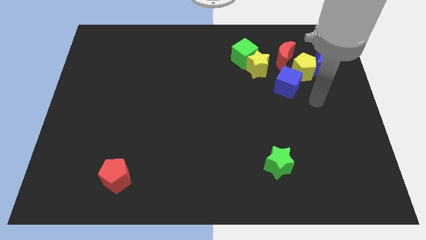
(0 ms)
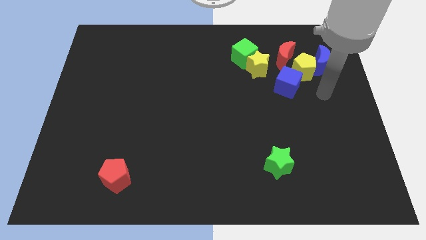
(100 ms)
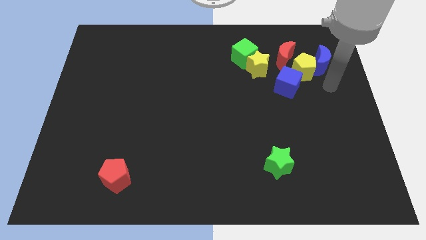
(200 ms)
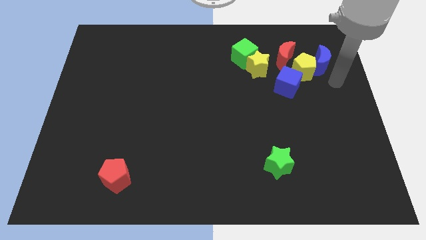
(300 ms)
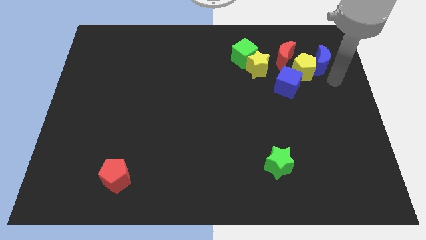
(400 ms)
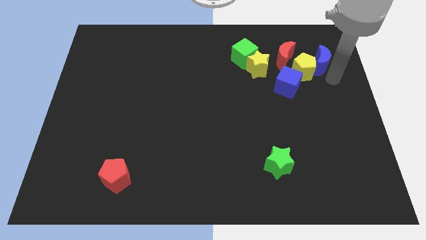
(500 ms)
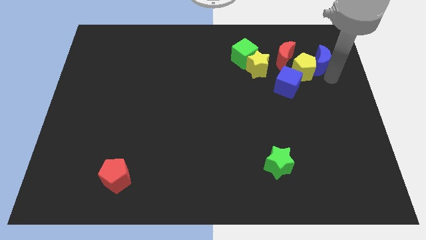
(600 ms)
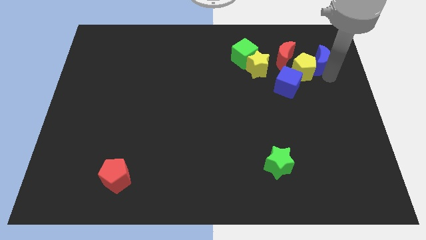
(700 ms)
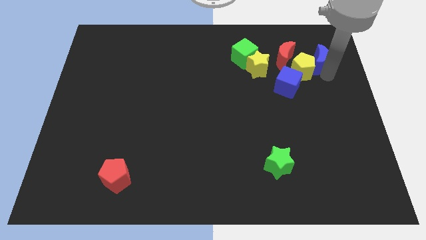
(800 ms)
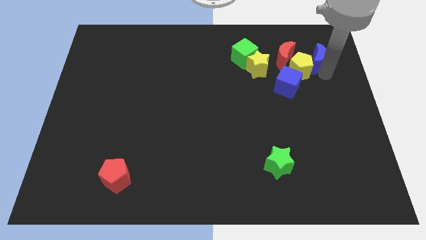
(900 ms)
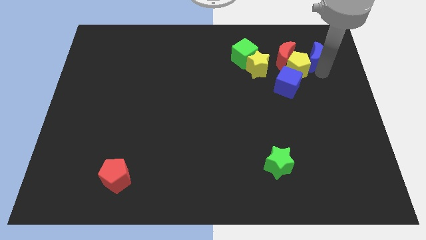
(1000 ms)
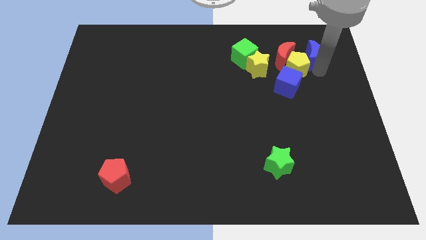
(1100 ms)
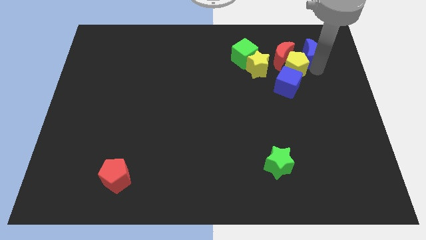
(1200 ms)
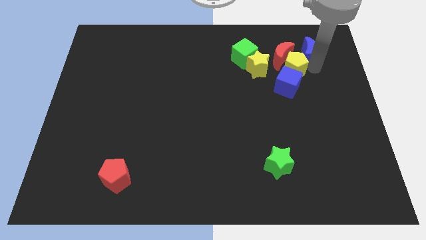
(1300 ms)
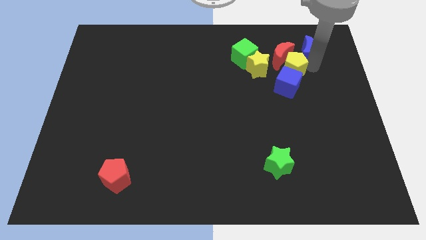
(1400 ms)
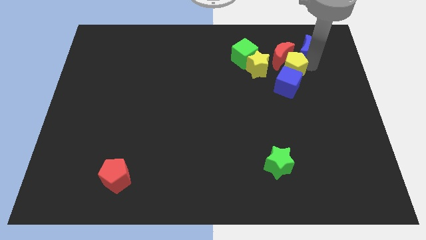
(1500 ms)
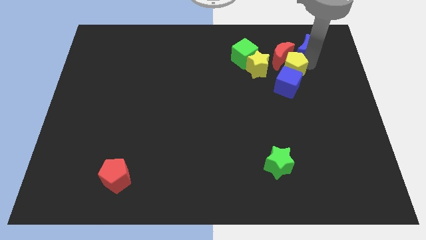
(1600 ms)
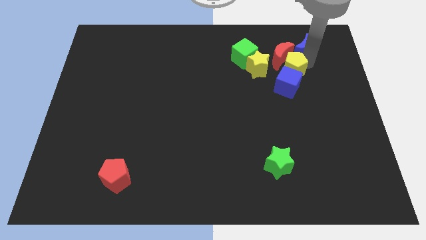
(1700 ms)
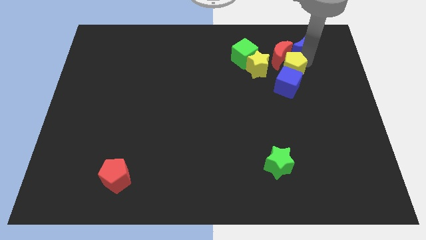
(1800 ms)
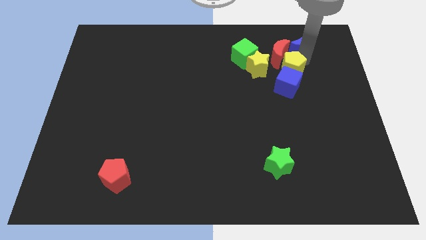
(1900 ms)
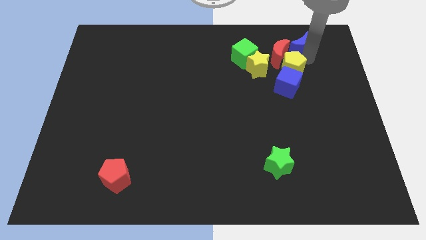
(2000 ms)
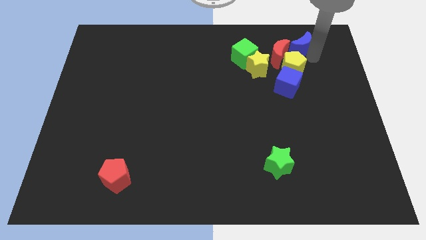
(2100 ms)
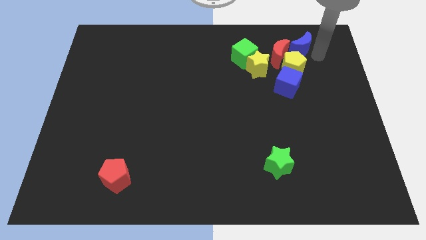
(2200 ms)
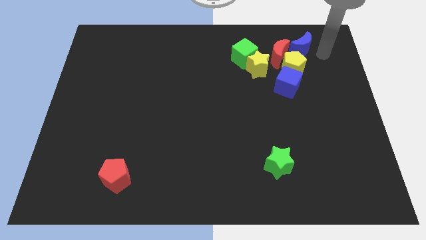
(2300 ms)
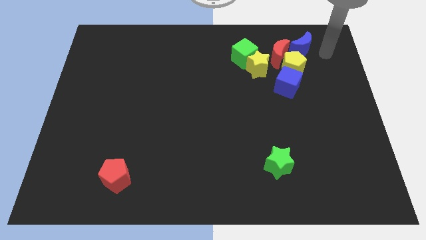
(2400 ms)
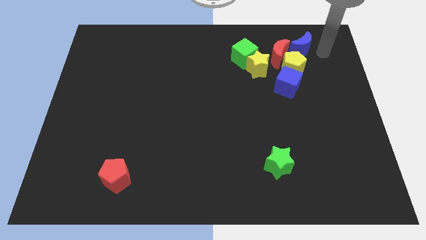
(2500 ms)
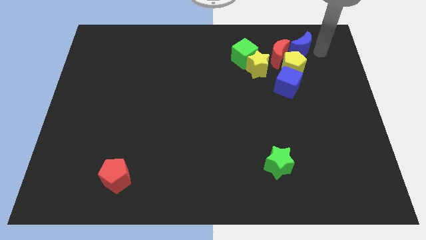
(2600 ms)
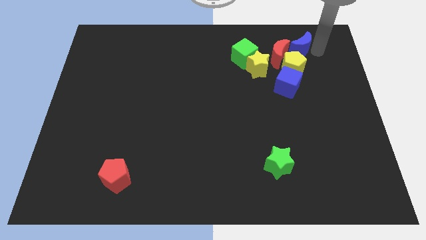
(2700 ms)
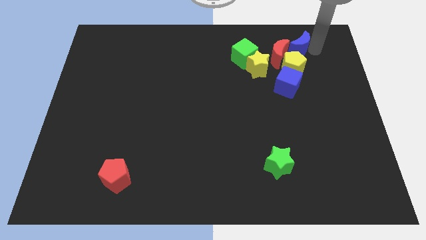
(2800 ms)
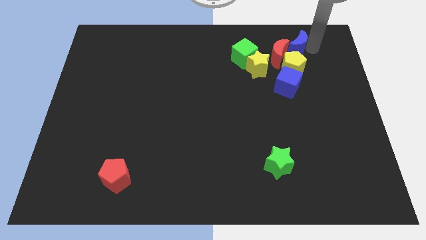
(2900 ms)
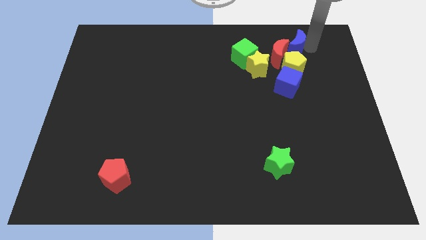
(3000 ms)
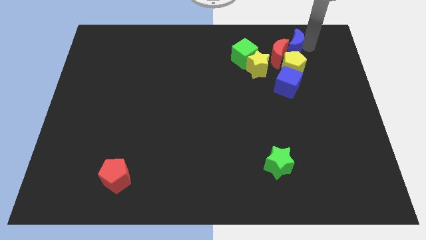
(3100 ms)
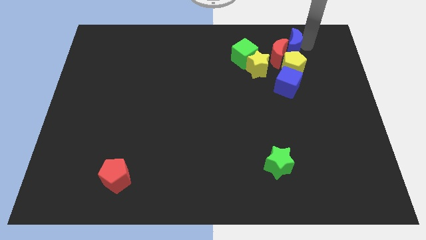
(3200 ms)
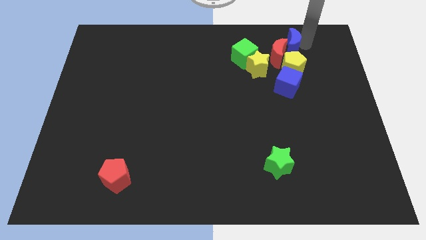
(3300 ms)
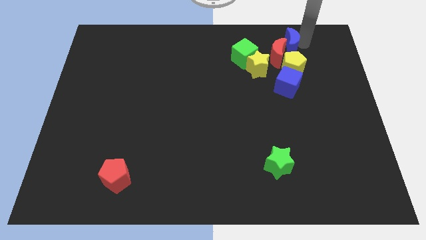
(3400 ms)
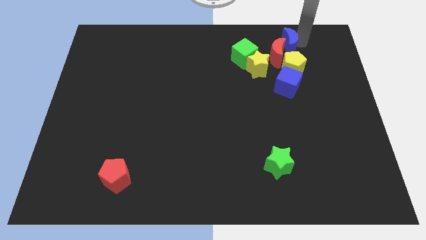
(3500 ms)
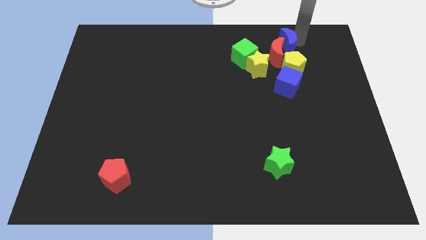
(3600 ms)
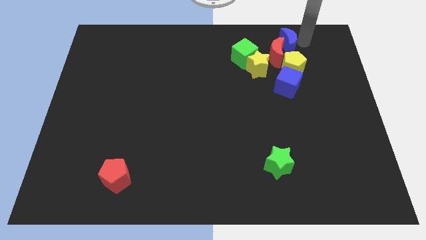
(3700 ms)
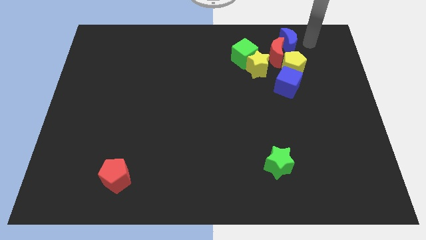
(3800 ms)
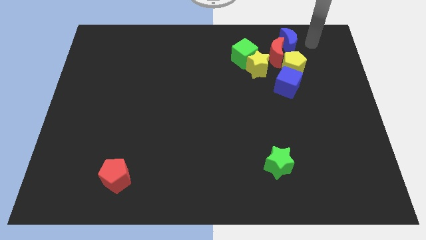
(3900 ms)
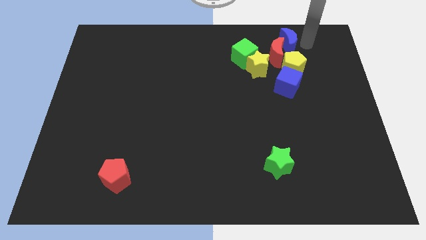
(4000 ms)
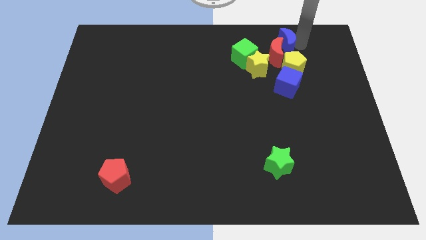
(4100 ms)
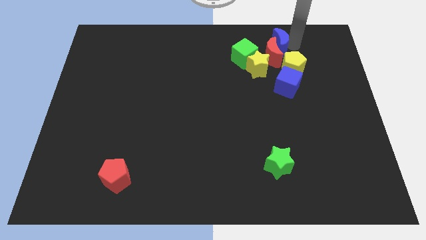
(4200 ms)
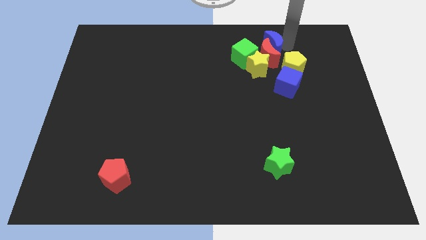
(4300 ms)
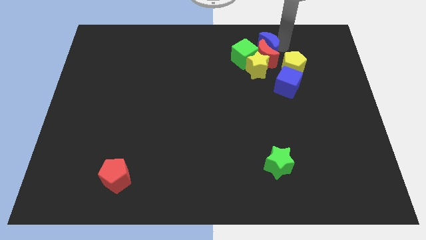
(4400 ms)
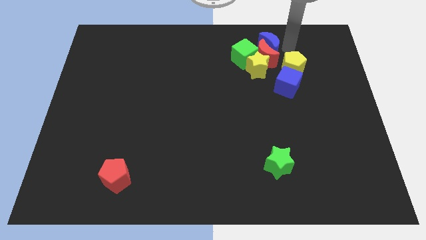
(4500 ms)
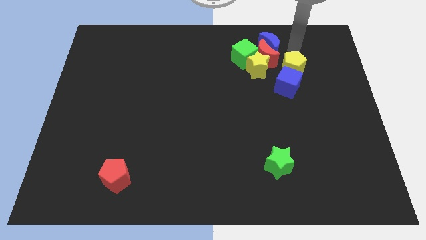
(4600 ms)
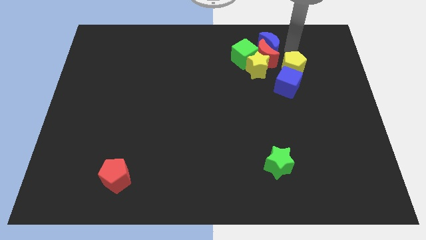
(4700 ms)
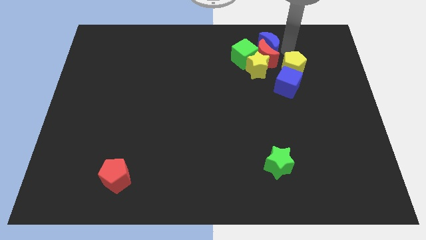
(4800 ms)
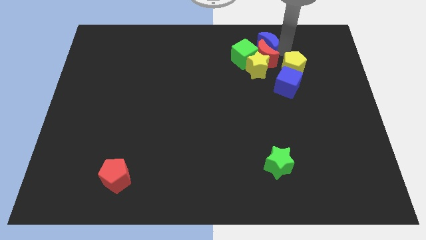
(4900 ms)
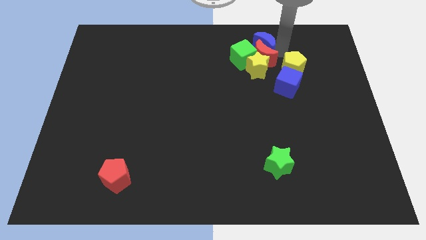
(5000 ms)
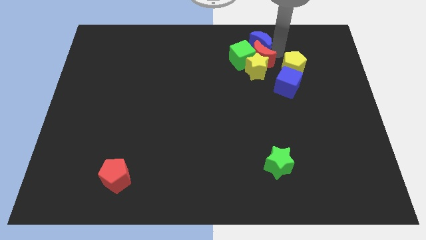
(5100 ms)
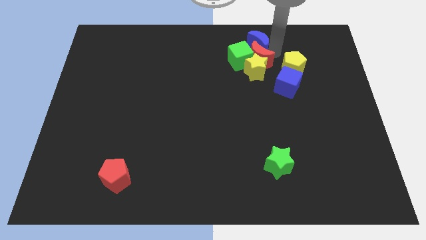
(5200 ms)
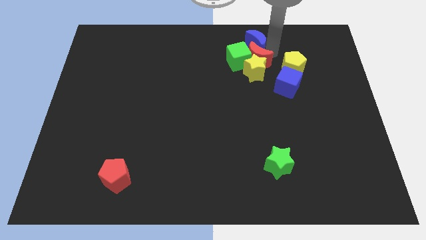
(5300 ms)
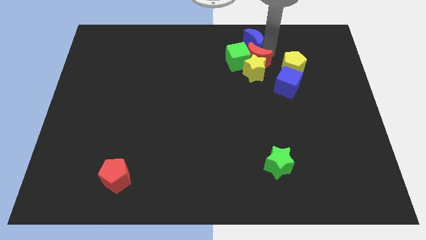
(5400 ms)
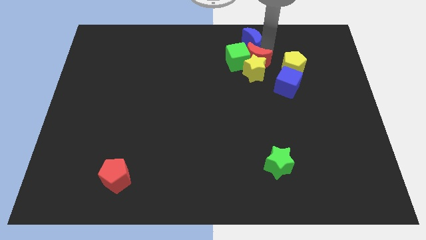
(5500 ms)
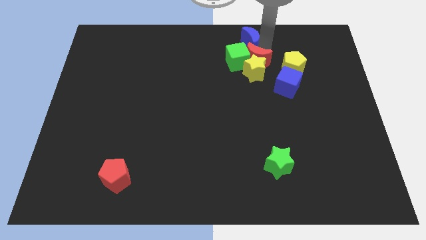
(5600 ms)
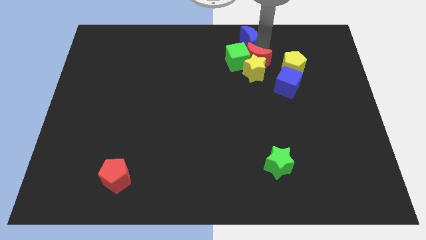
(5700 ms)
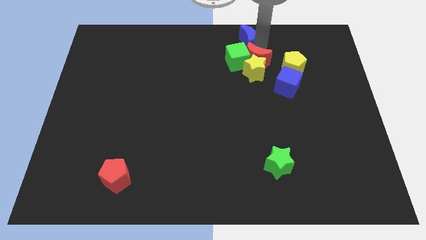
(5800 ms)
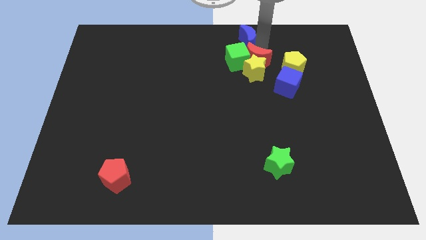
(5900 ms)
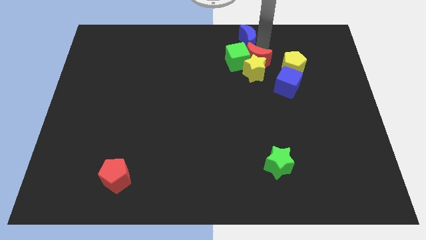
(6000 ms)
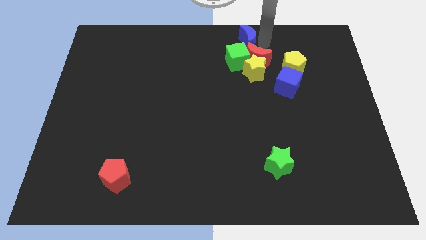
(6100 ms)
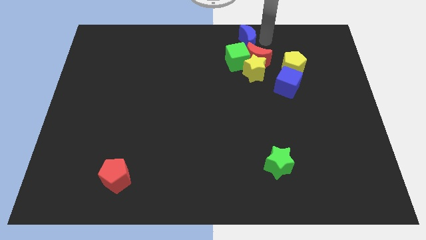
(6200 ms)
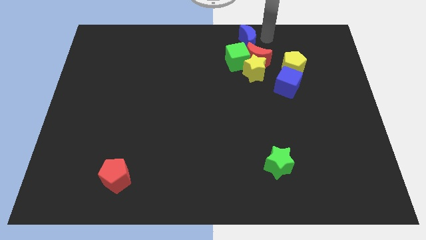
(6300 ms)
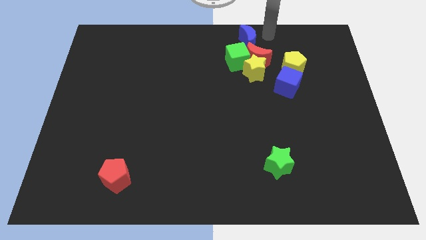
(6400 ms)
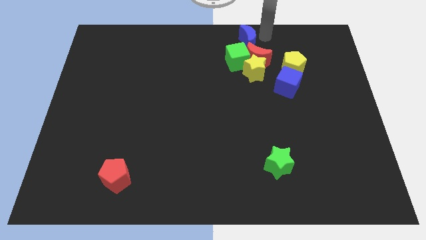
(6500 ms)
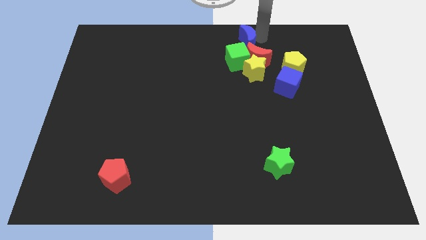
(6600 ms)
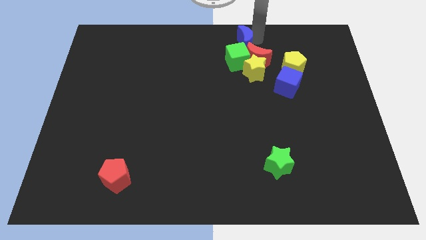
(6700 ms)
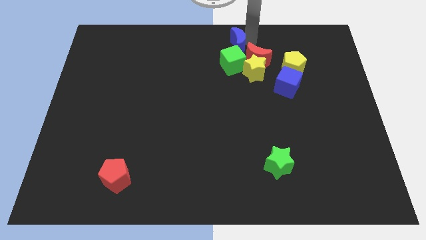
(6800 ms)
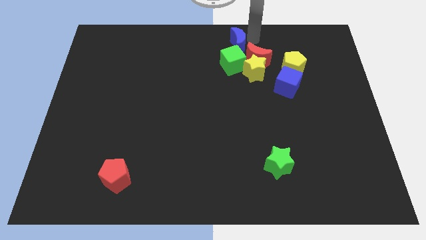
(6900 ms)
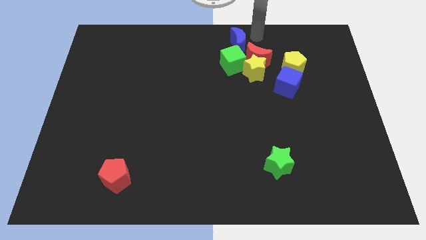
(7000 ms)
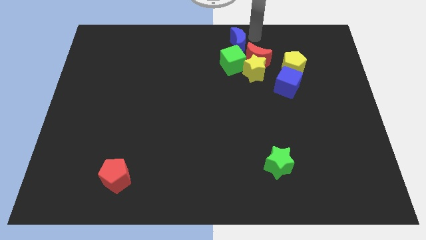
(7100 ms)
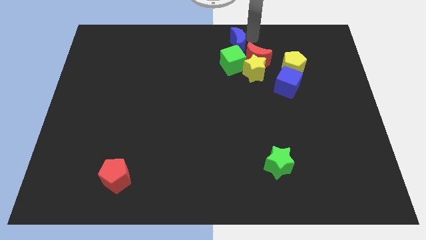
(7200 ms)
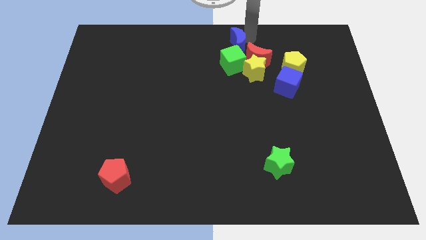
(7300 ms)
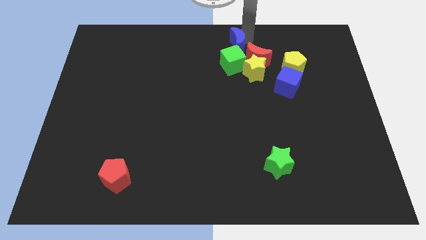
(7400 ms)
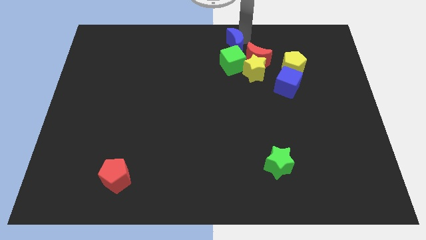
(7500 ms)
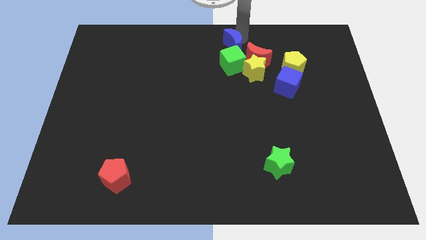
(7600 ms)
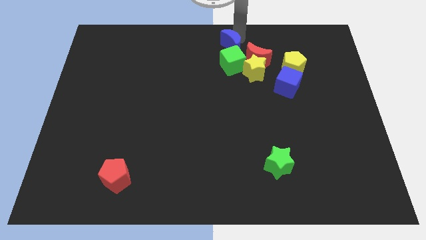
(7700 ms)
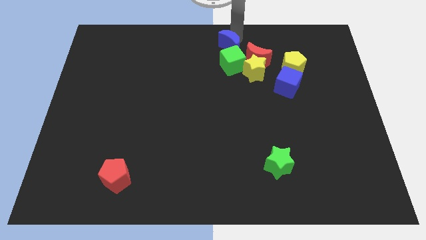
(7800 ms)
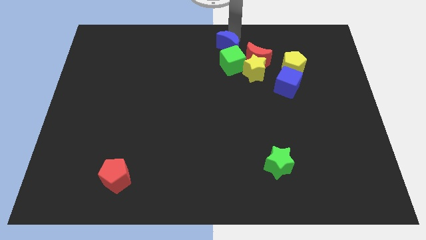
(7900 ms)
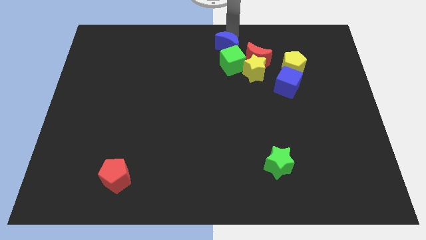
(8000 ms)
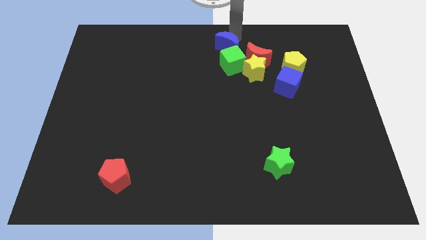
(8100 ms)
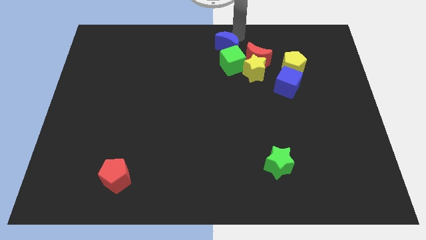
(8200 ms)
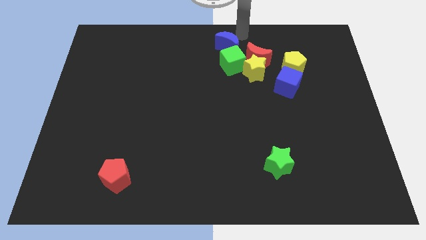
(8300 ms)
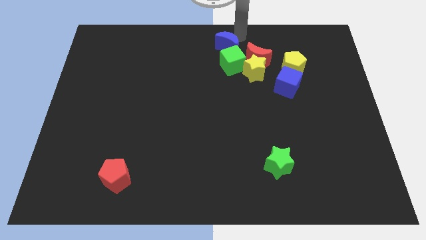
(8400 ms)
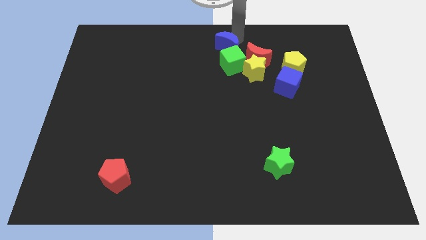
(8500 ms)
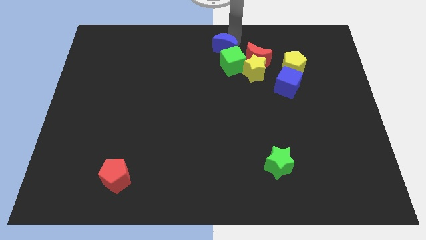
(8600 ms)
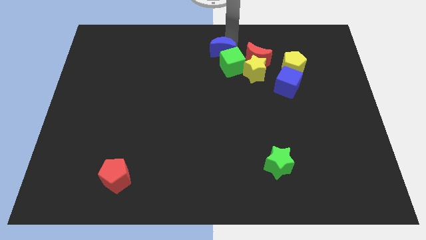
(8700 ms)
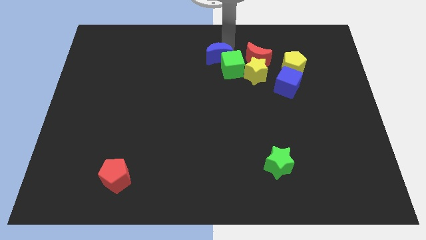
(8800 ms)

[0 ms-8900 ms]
put the blue moon to the left side of the green cube
